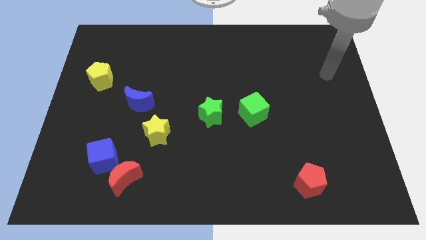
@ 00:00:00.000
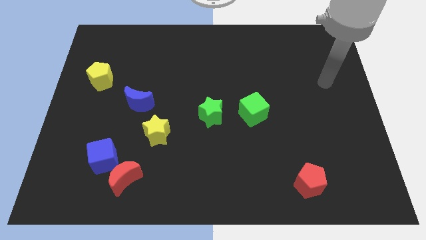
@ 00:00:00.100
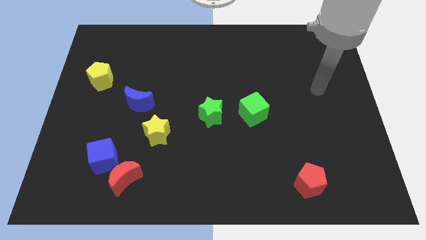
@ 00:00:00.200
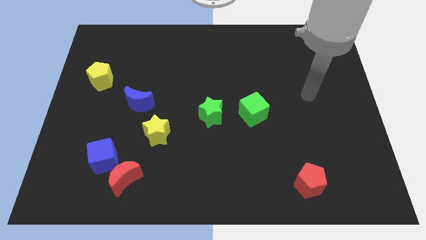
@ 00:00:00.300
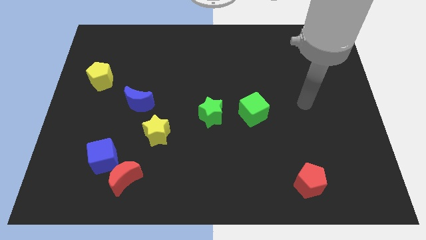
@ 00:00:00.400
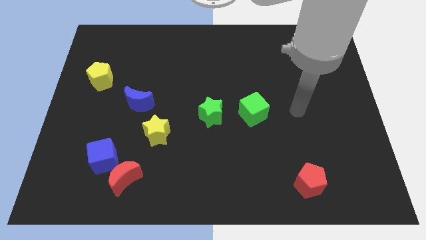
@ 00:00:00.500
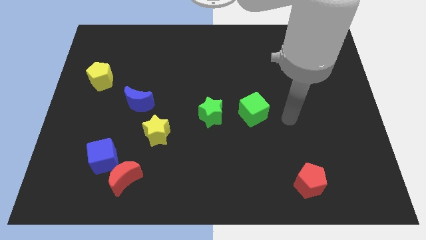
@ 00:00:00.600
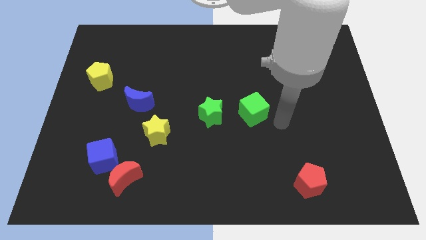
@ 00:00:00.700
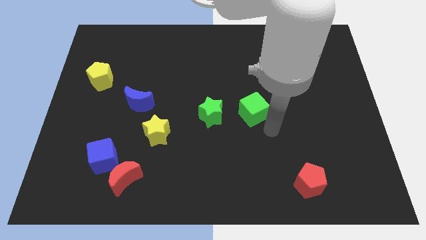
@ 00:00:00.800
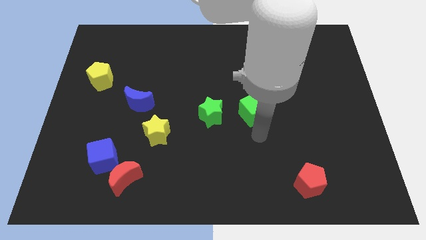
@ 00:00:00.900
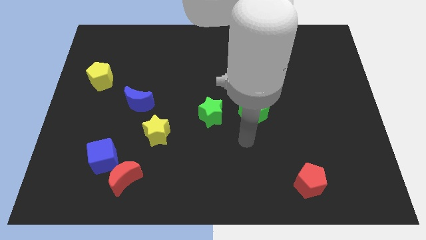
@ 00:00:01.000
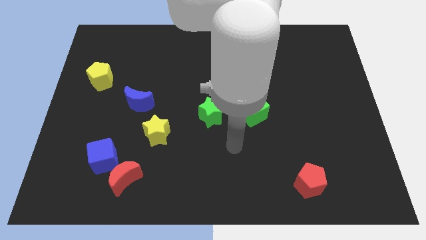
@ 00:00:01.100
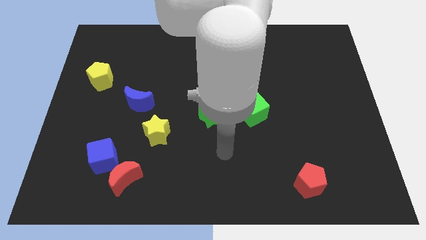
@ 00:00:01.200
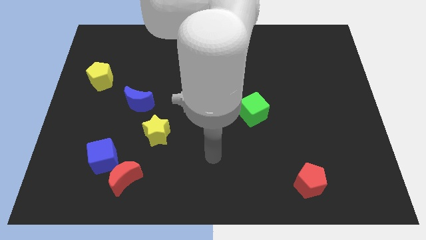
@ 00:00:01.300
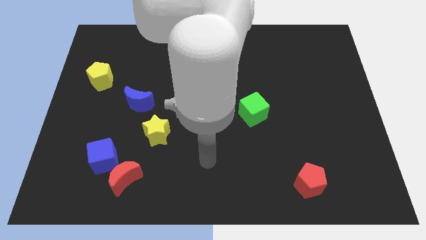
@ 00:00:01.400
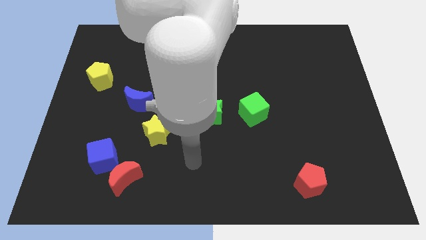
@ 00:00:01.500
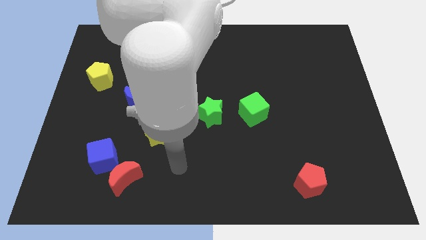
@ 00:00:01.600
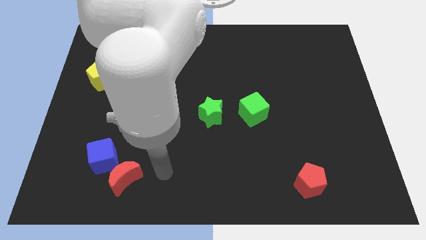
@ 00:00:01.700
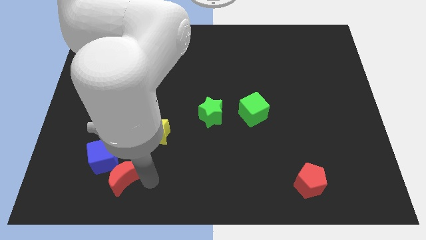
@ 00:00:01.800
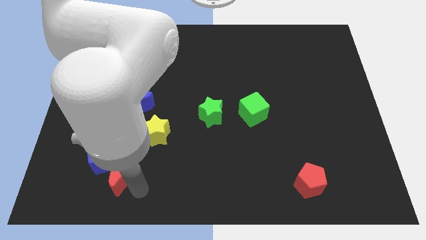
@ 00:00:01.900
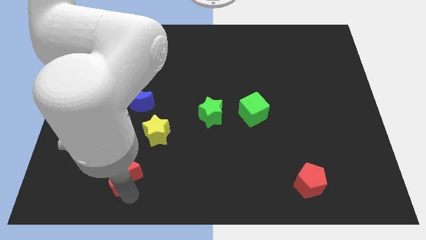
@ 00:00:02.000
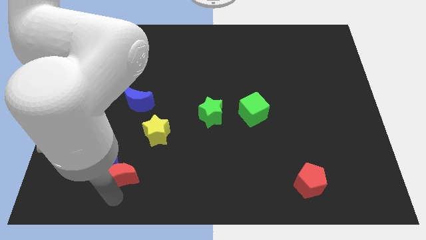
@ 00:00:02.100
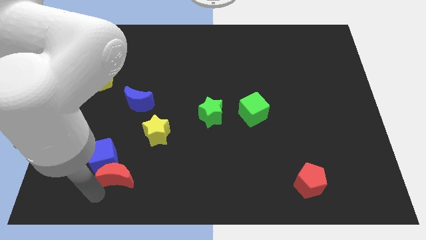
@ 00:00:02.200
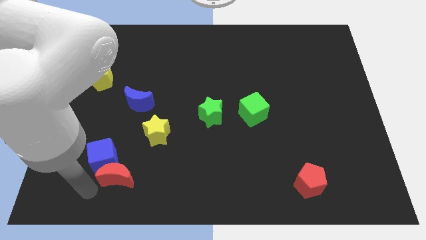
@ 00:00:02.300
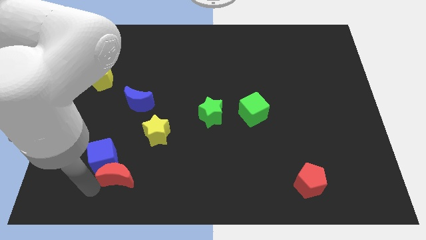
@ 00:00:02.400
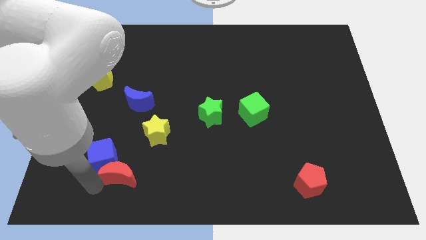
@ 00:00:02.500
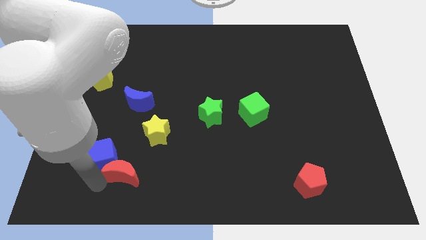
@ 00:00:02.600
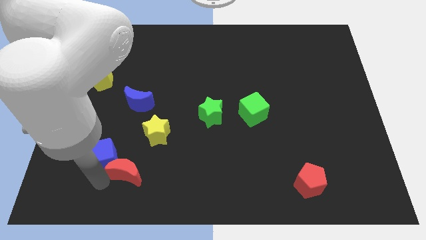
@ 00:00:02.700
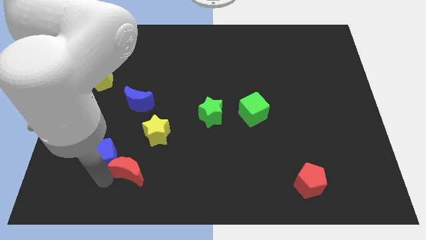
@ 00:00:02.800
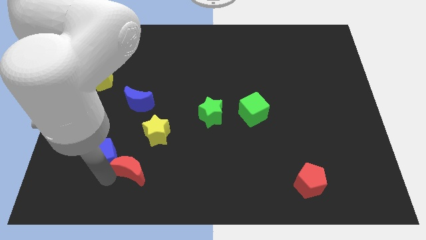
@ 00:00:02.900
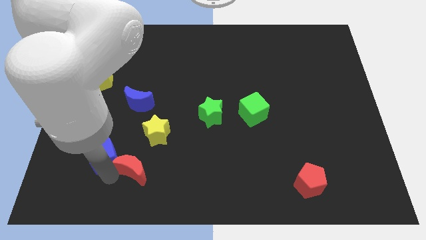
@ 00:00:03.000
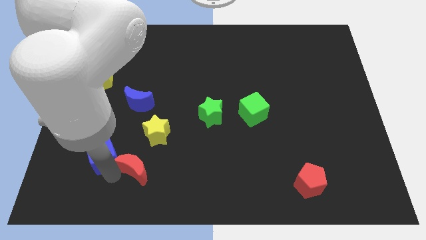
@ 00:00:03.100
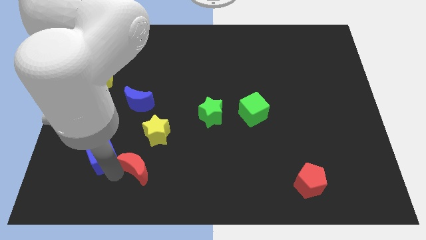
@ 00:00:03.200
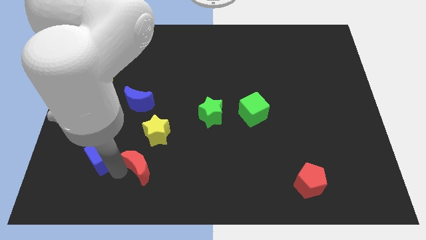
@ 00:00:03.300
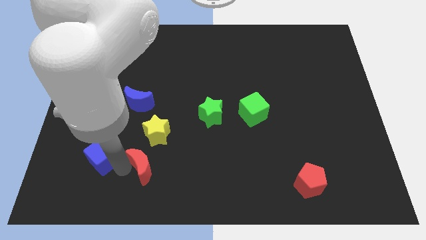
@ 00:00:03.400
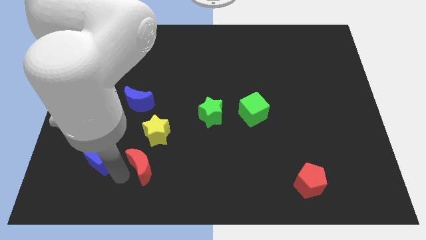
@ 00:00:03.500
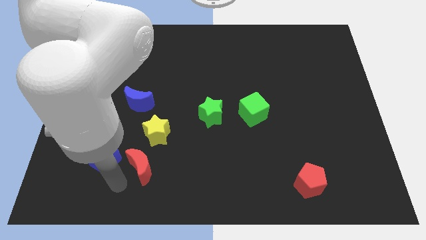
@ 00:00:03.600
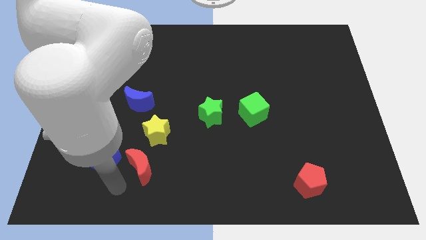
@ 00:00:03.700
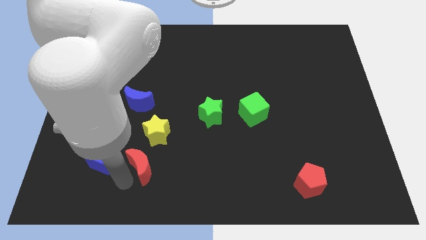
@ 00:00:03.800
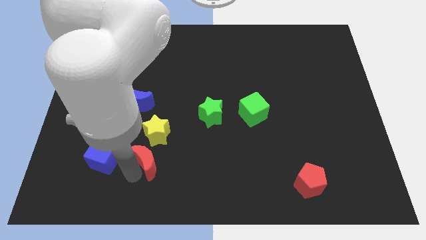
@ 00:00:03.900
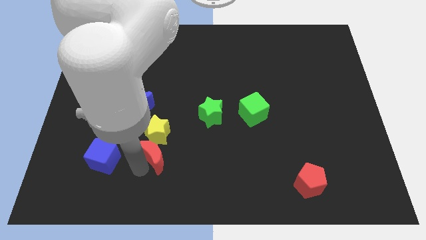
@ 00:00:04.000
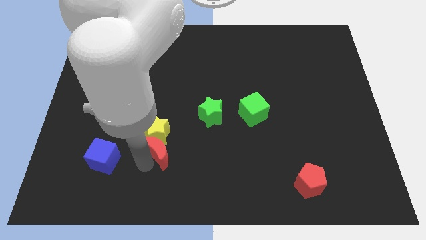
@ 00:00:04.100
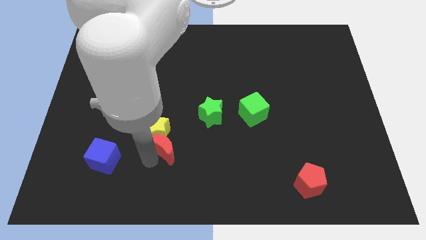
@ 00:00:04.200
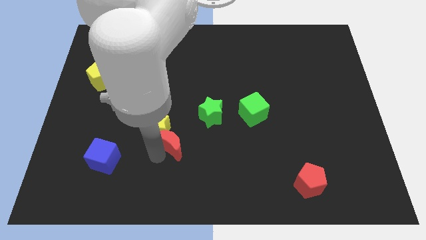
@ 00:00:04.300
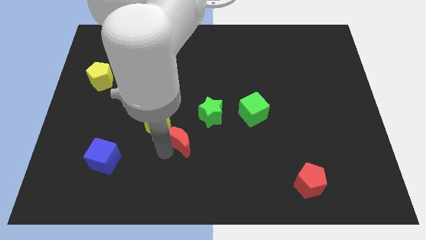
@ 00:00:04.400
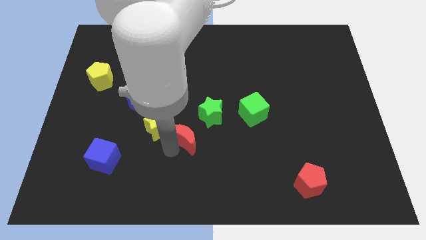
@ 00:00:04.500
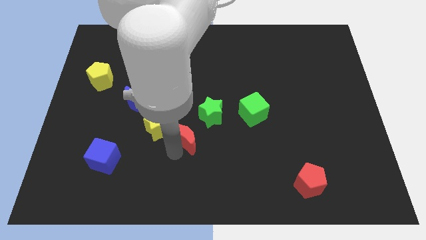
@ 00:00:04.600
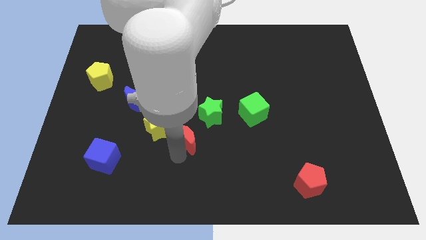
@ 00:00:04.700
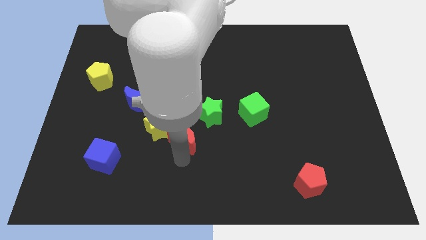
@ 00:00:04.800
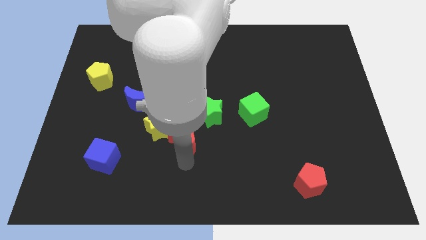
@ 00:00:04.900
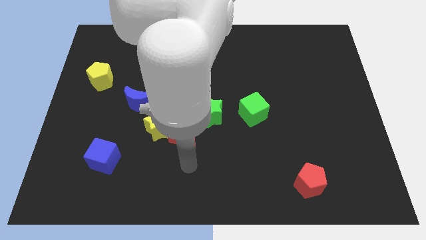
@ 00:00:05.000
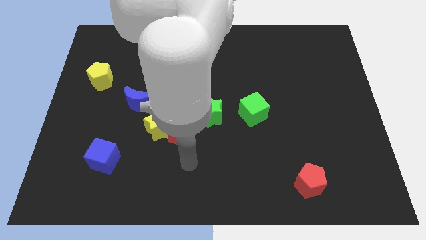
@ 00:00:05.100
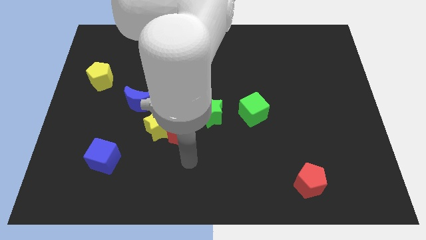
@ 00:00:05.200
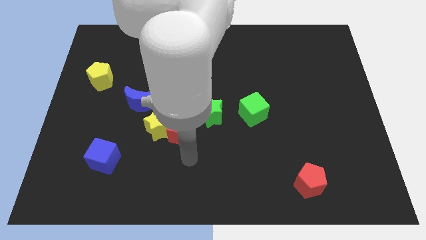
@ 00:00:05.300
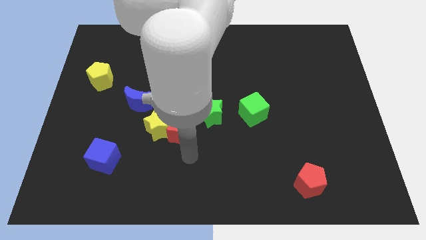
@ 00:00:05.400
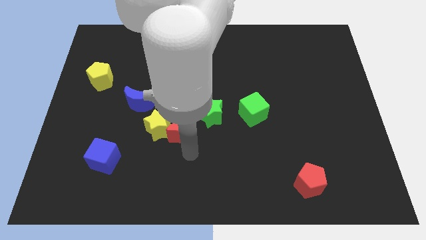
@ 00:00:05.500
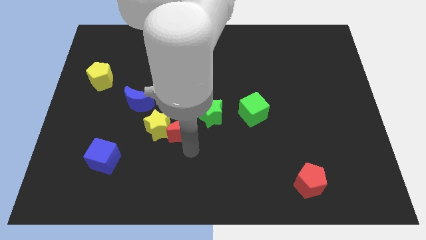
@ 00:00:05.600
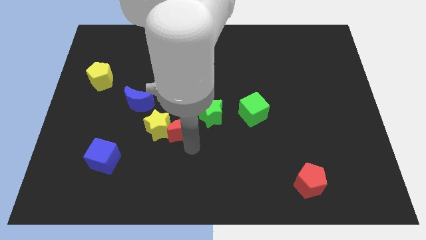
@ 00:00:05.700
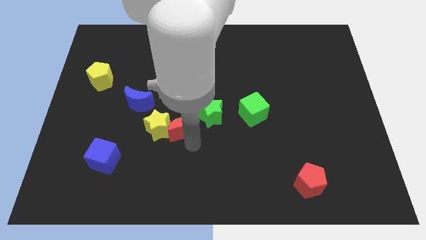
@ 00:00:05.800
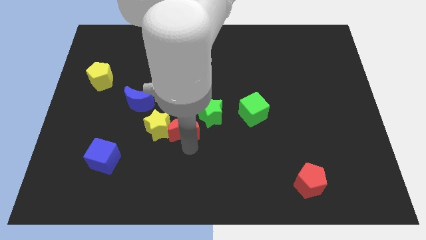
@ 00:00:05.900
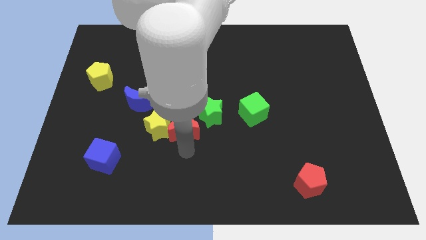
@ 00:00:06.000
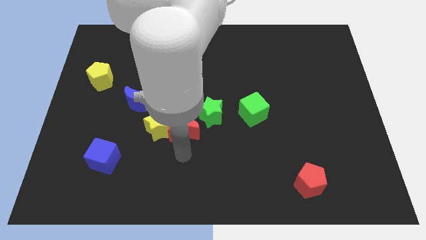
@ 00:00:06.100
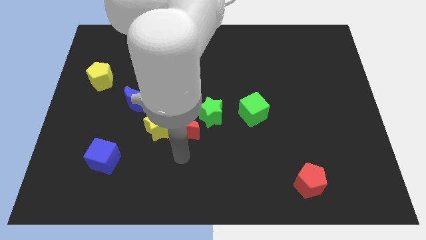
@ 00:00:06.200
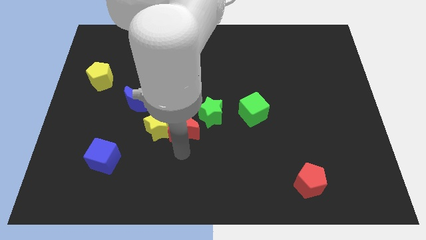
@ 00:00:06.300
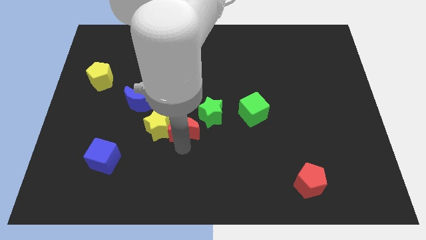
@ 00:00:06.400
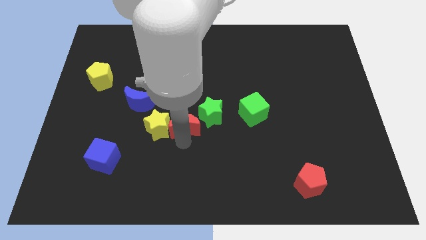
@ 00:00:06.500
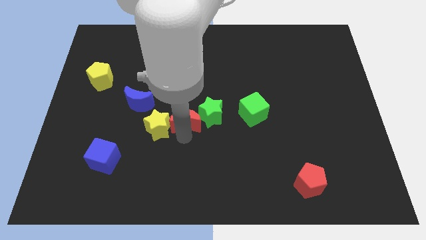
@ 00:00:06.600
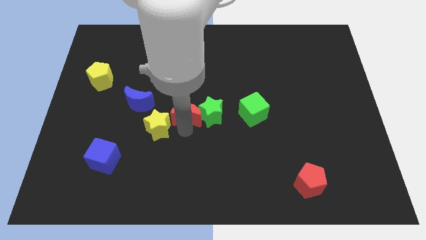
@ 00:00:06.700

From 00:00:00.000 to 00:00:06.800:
move the red moon to the top left side of the green star
